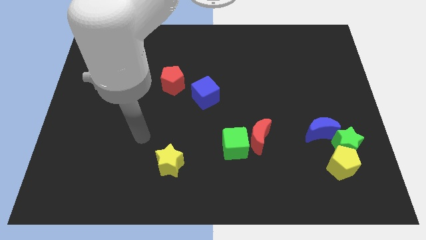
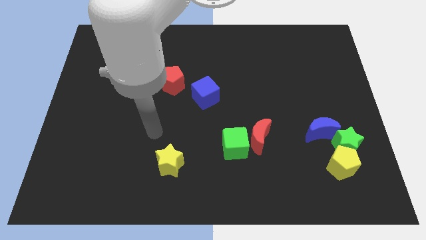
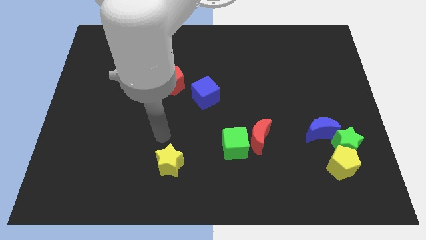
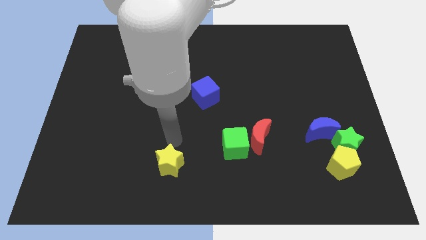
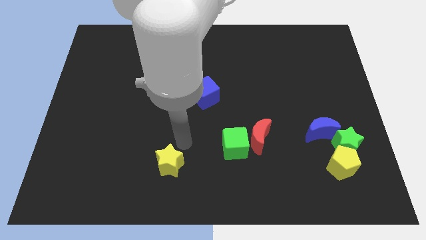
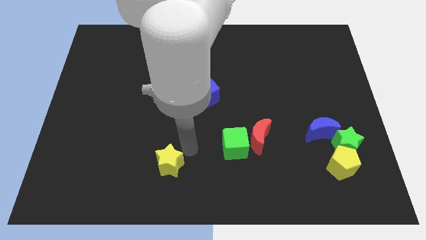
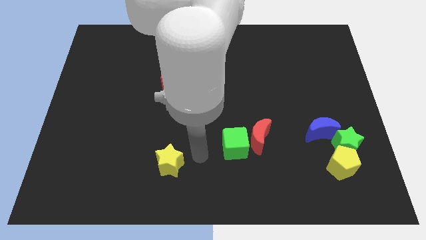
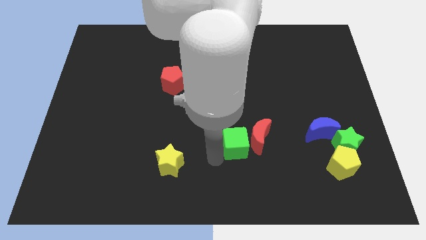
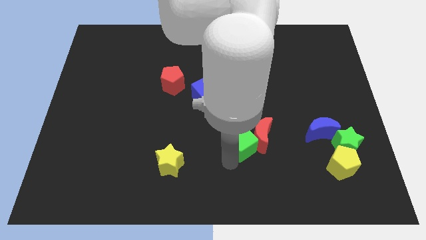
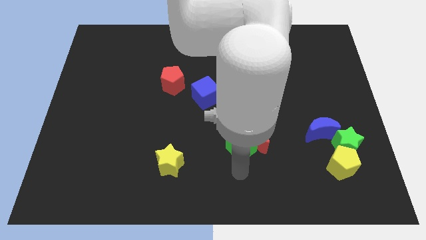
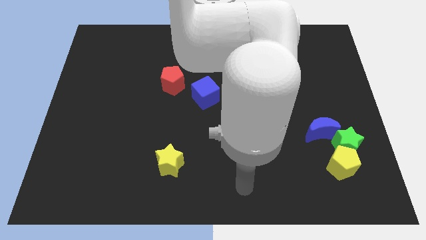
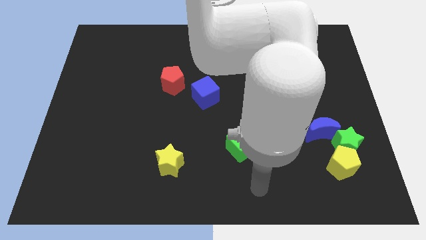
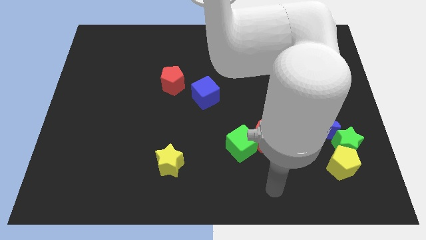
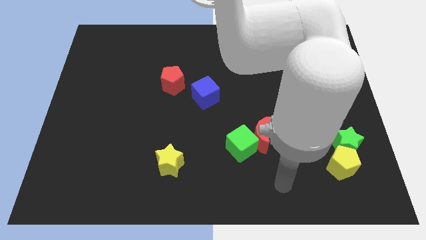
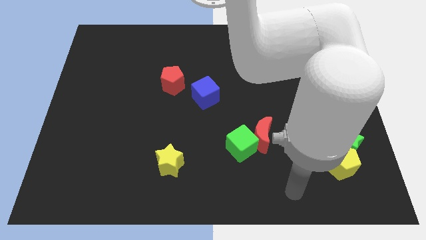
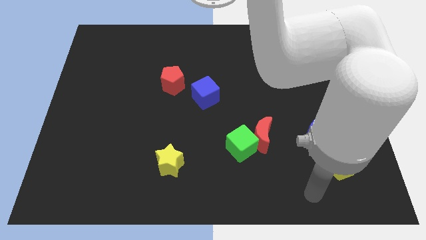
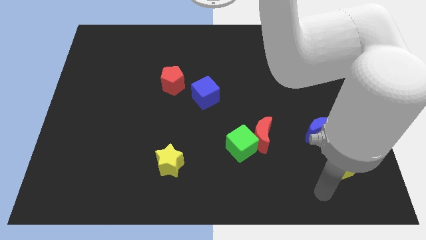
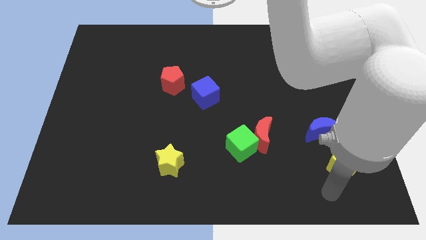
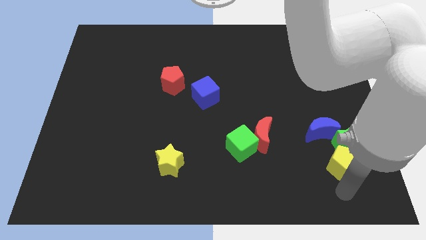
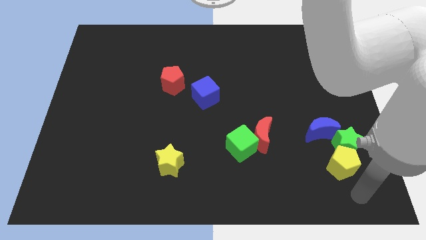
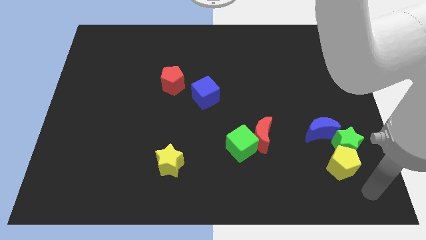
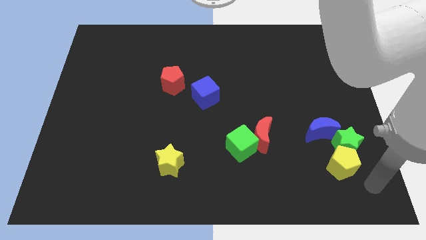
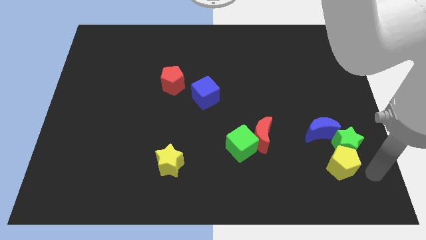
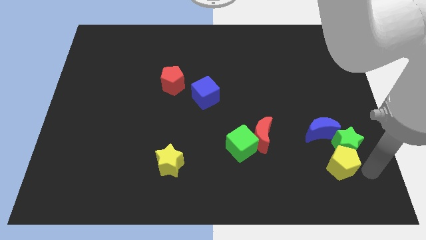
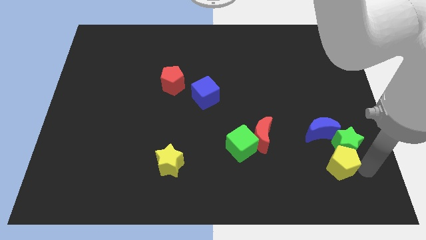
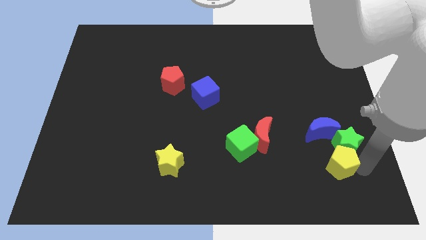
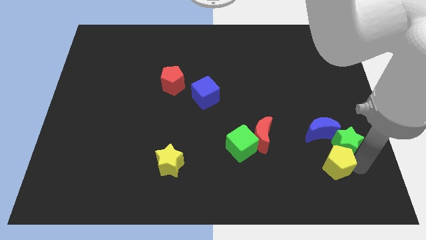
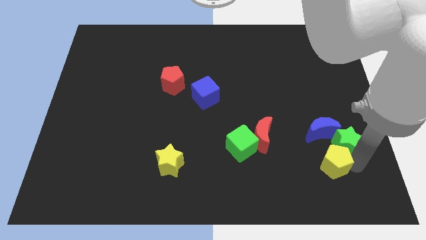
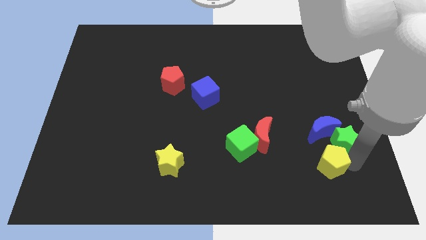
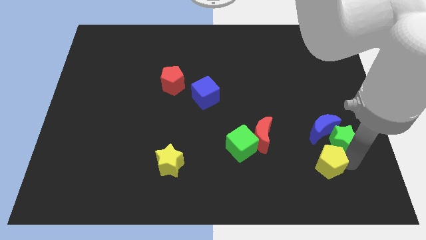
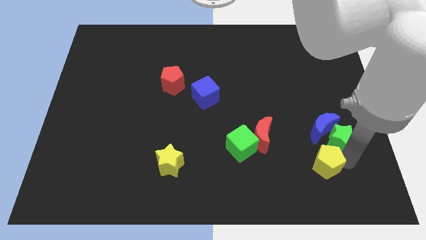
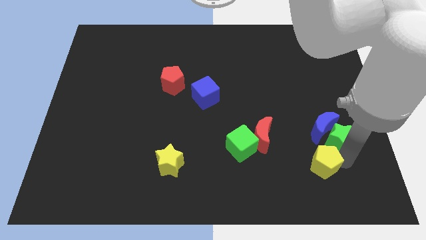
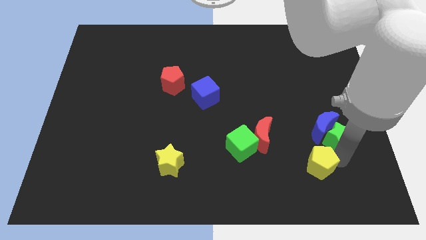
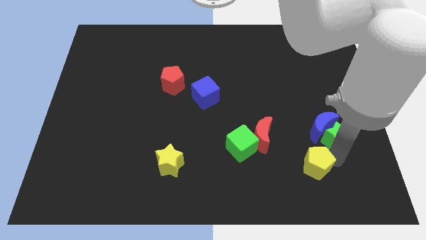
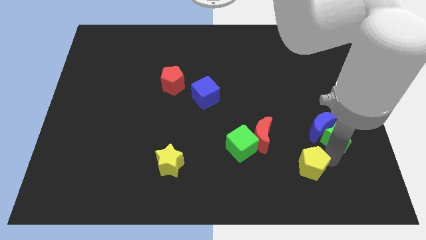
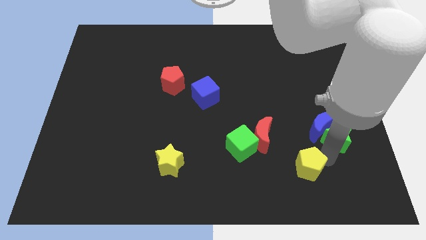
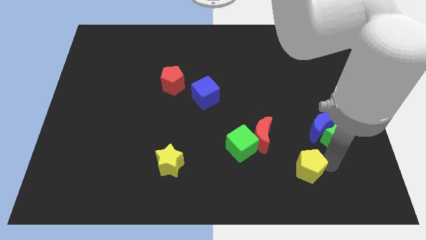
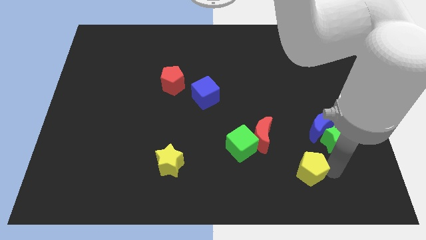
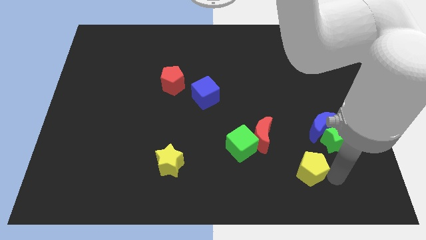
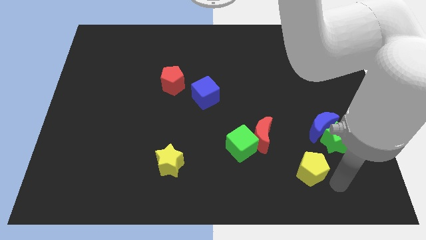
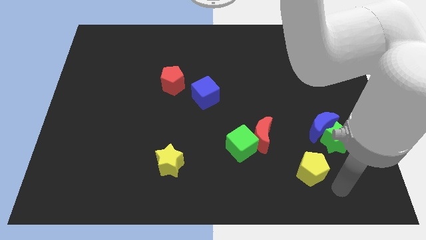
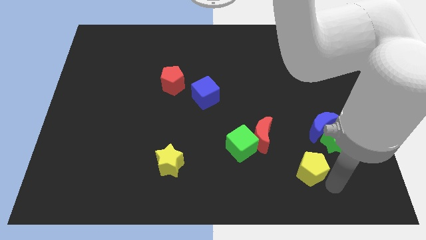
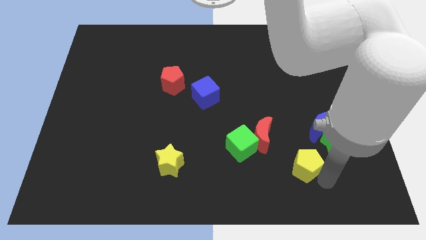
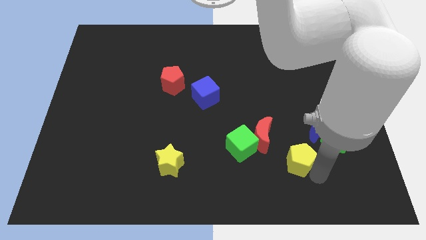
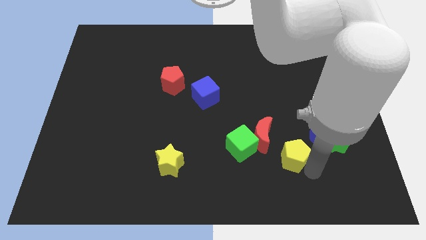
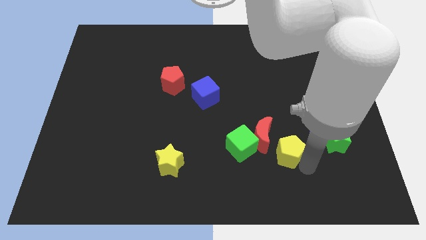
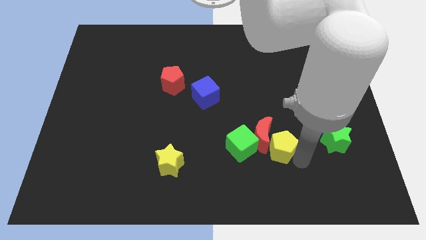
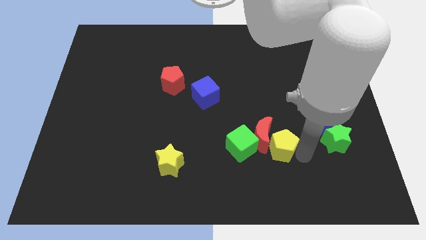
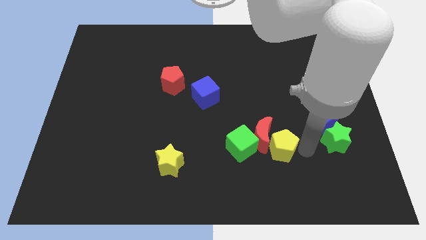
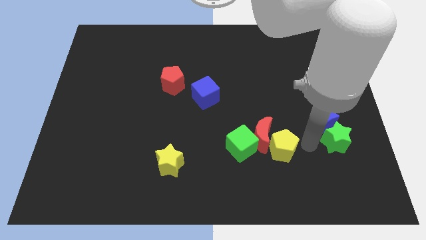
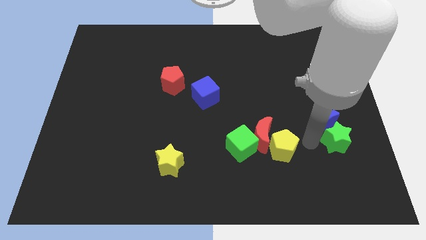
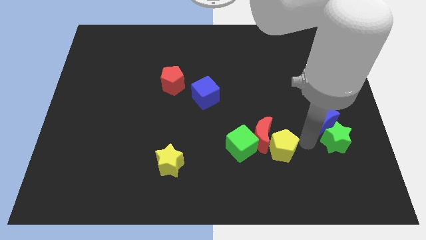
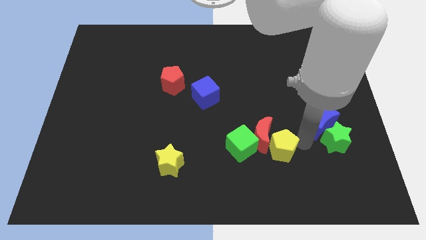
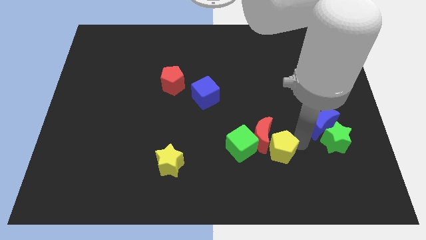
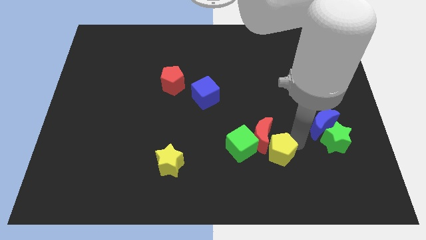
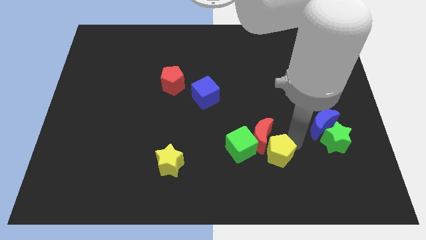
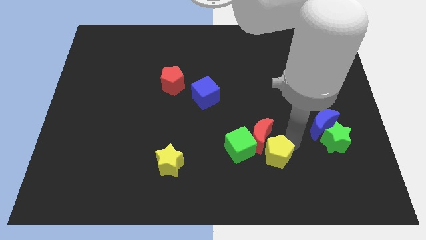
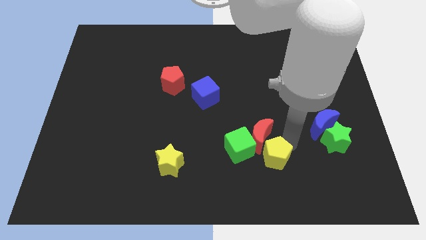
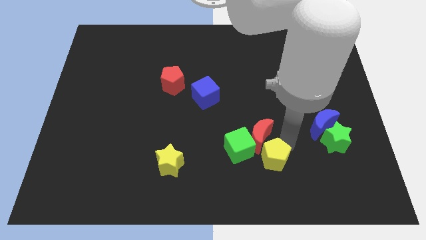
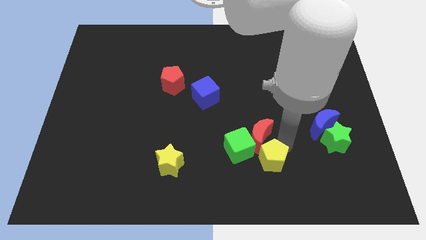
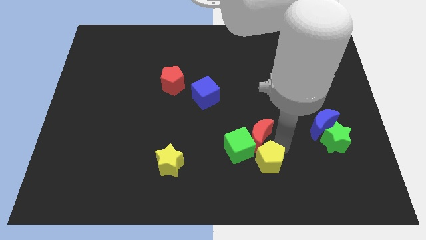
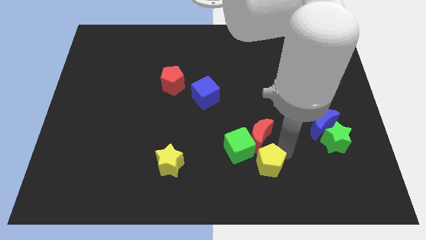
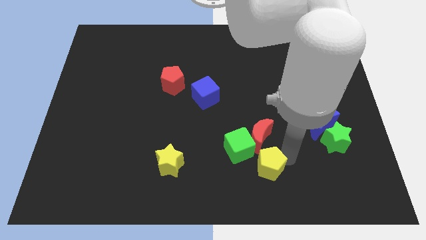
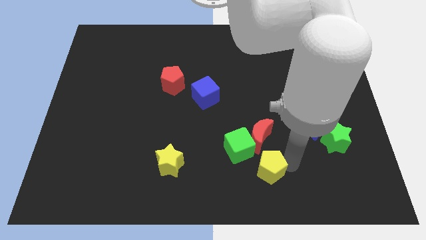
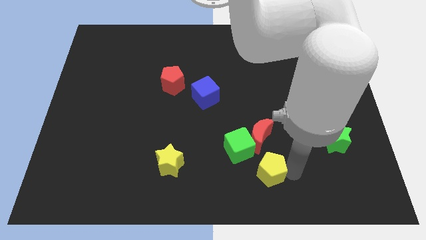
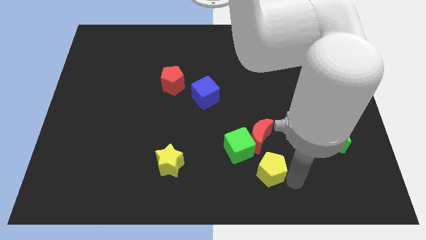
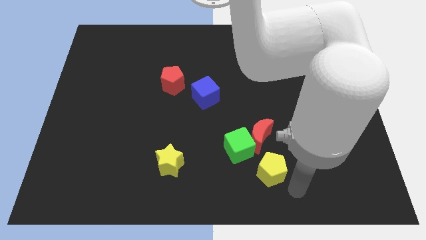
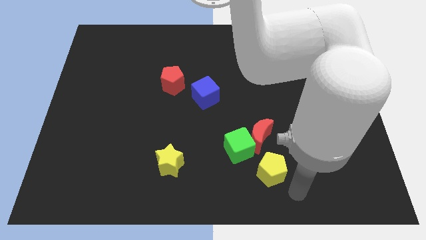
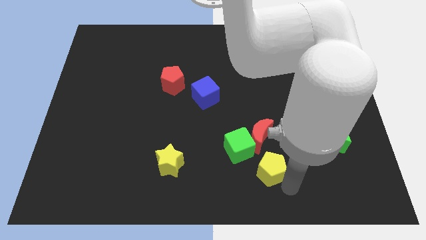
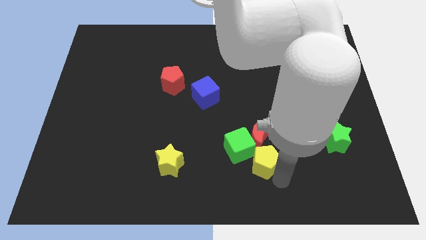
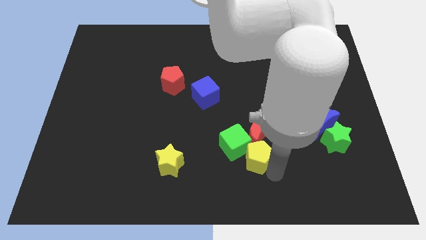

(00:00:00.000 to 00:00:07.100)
put the yellow pentagon towards the green cube

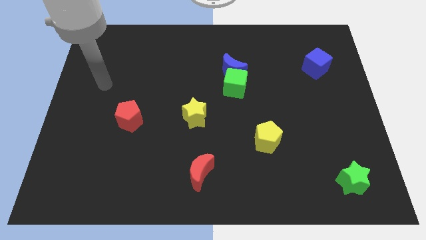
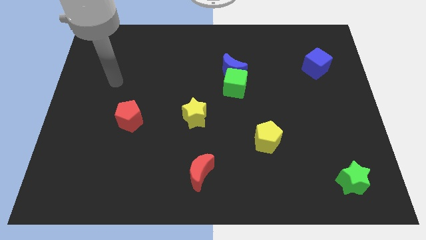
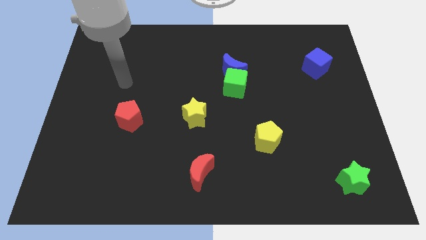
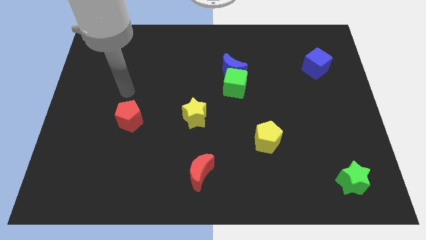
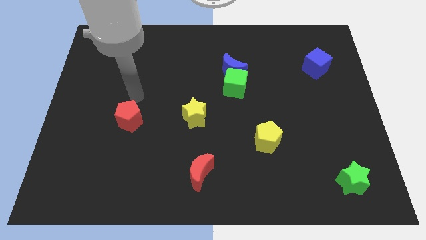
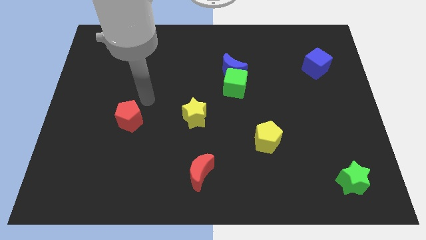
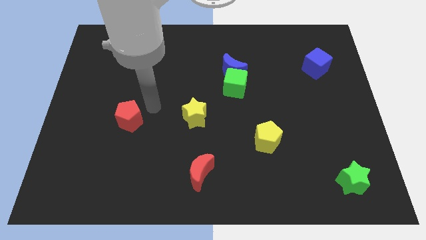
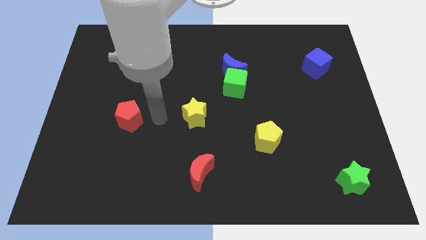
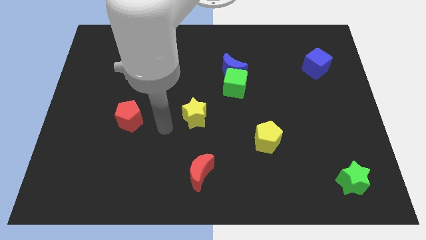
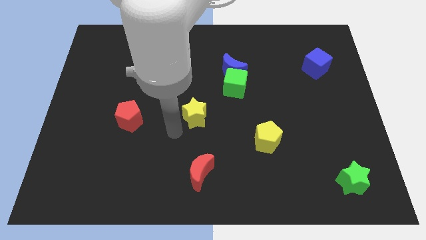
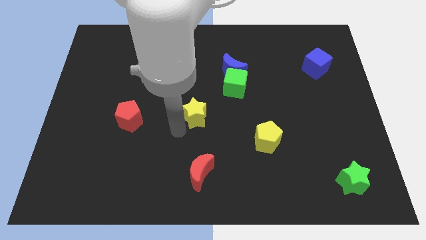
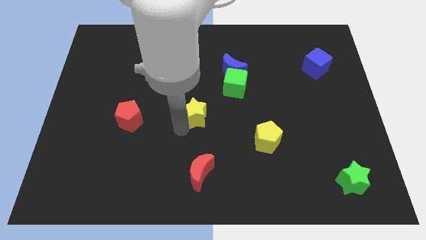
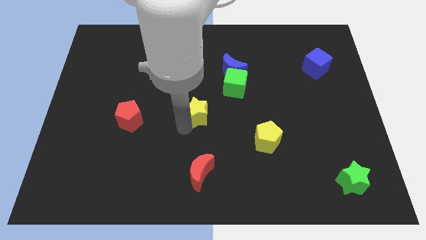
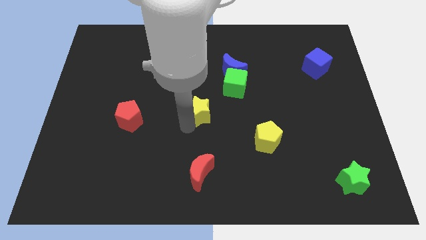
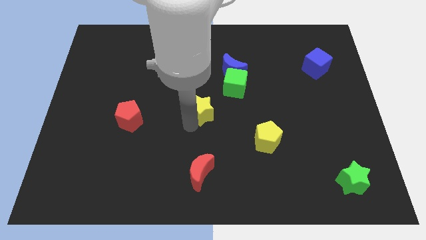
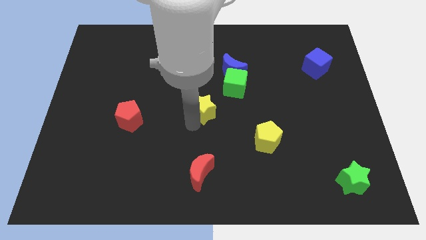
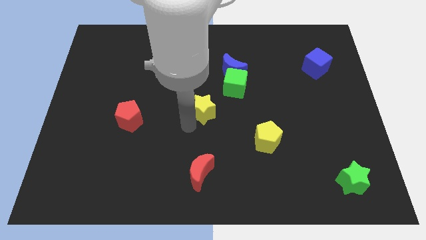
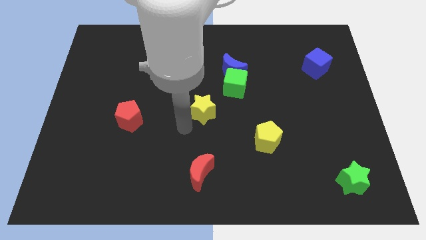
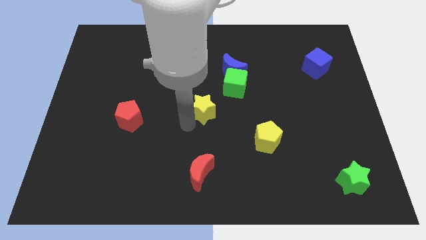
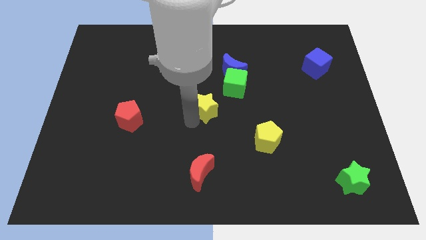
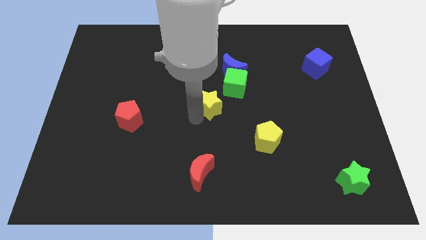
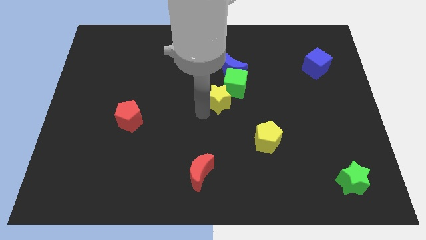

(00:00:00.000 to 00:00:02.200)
push the yellow star to the green cube
